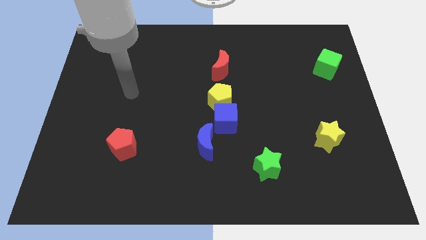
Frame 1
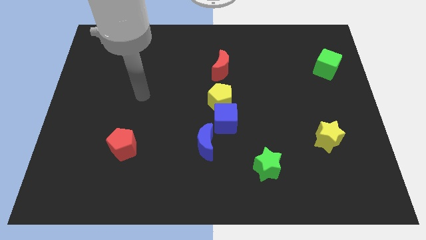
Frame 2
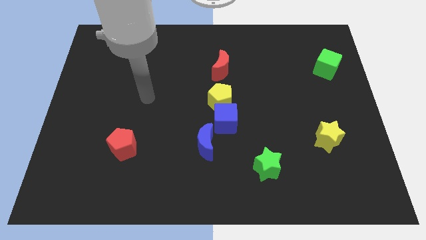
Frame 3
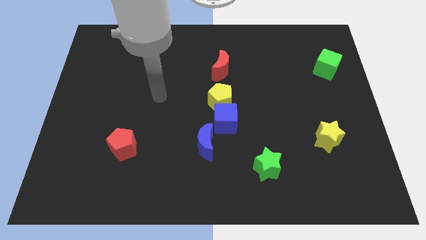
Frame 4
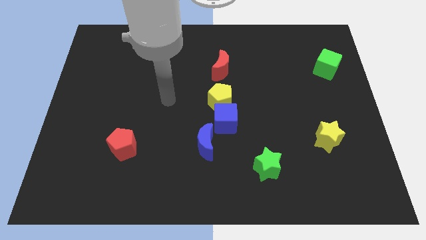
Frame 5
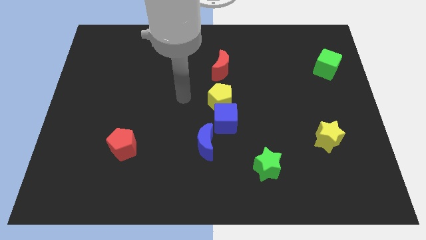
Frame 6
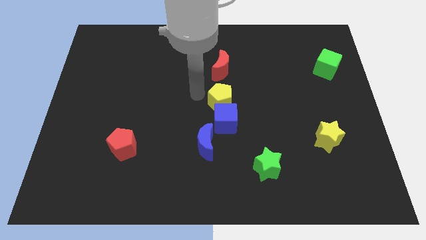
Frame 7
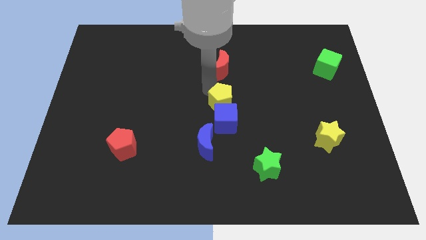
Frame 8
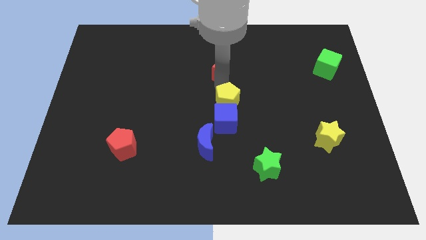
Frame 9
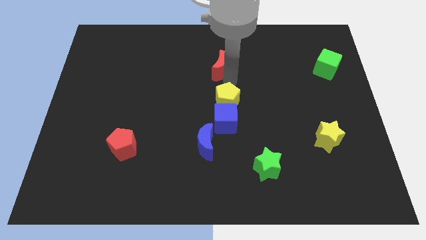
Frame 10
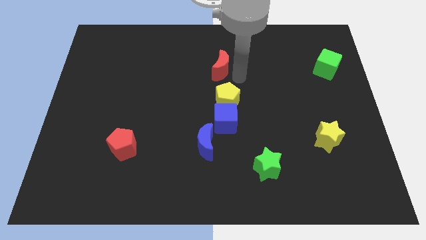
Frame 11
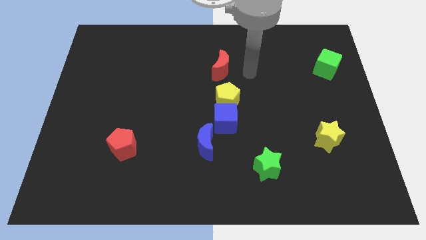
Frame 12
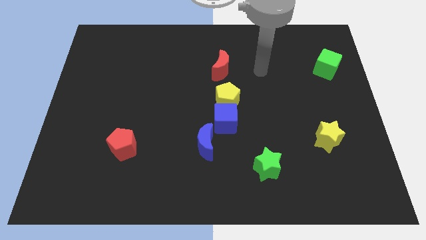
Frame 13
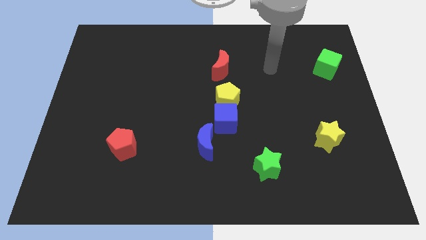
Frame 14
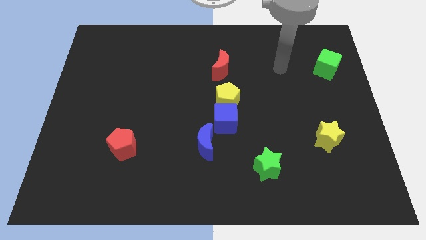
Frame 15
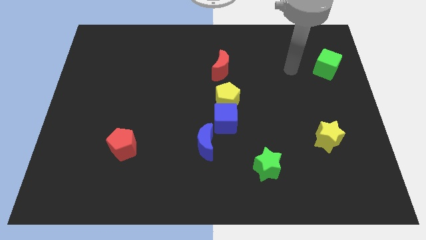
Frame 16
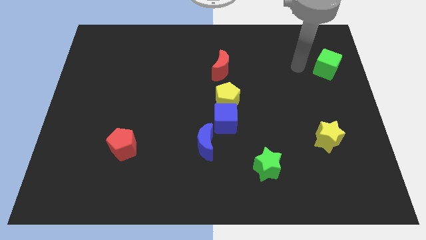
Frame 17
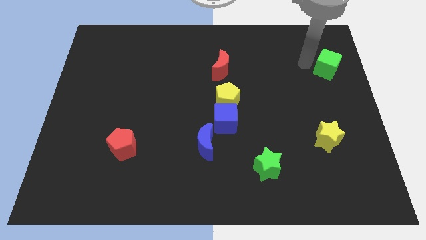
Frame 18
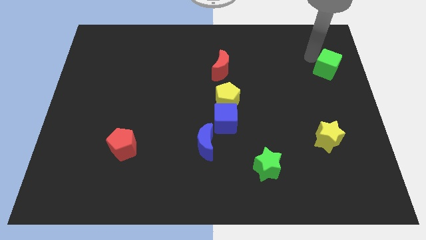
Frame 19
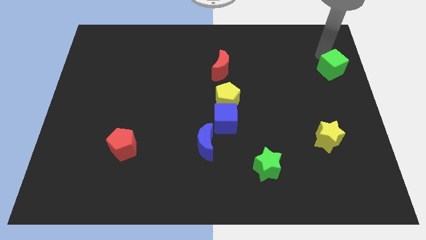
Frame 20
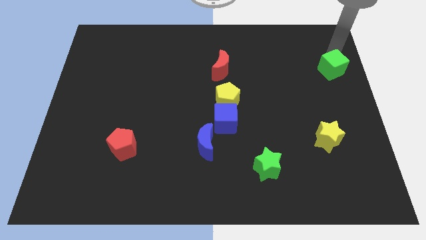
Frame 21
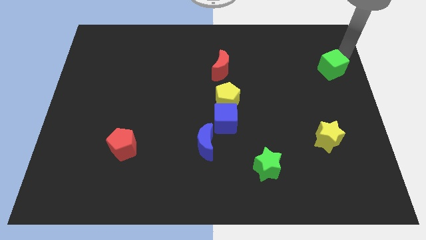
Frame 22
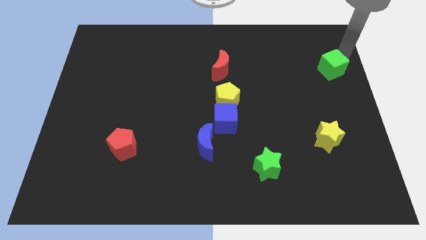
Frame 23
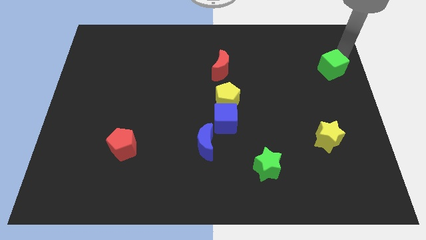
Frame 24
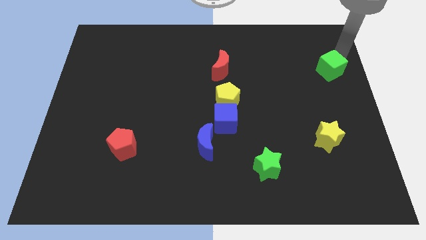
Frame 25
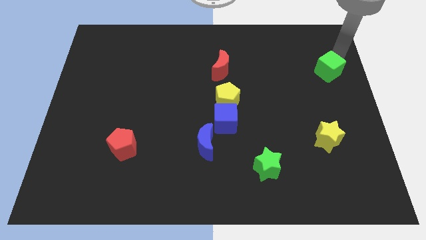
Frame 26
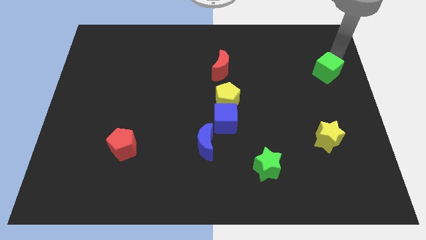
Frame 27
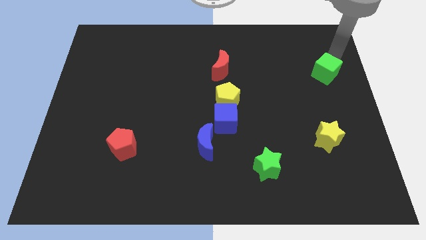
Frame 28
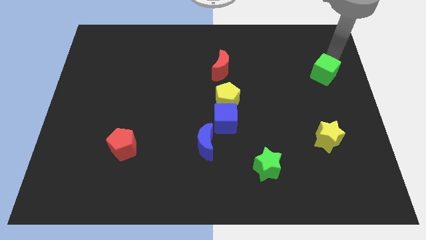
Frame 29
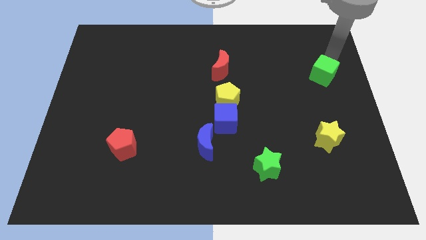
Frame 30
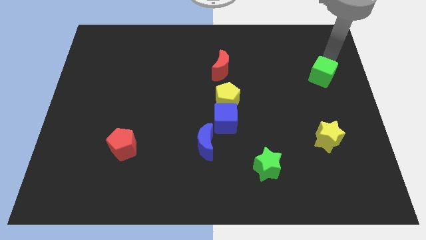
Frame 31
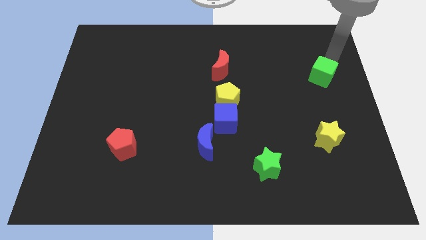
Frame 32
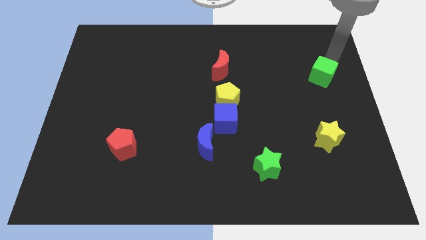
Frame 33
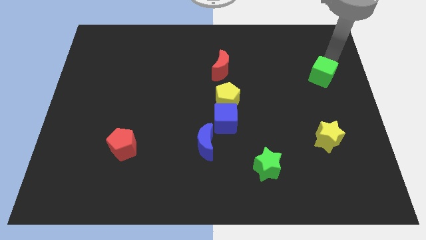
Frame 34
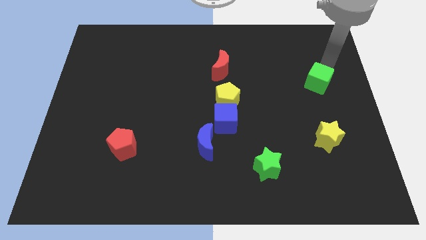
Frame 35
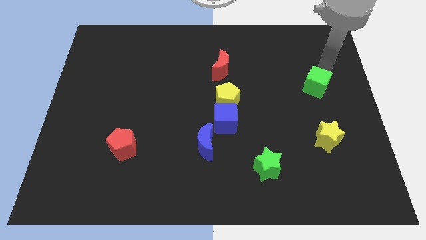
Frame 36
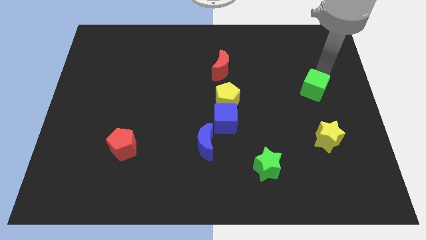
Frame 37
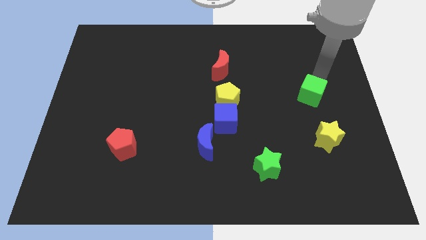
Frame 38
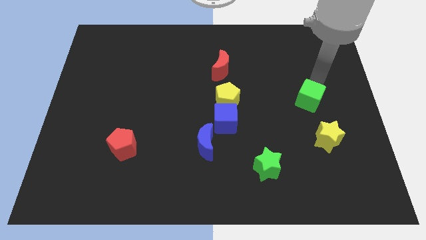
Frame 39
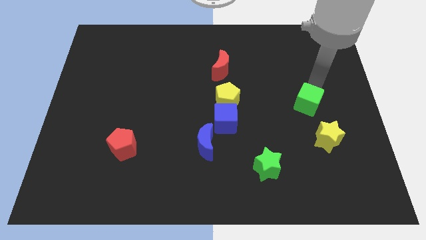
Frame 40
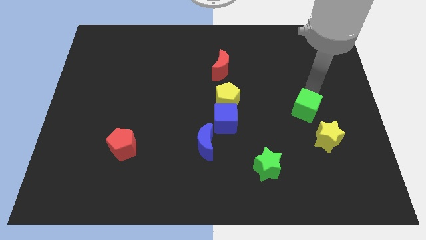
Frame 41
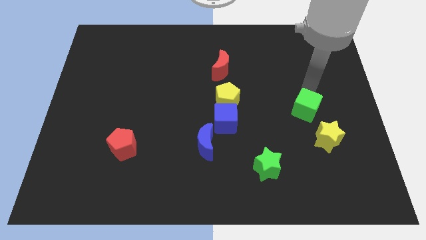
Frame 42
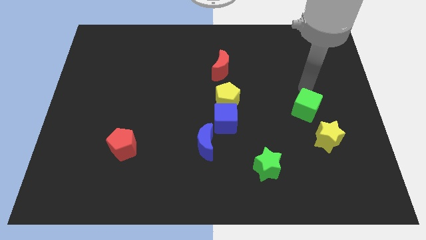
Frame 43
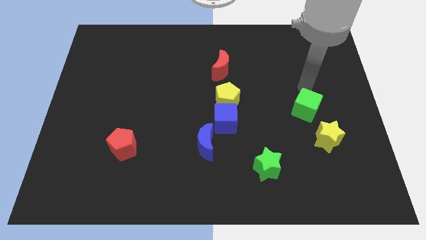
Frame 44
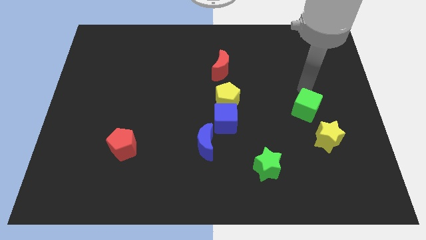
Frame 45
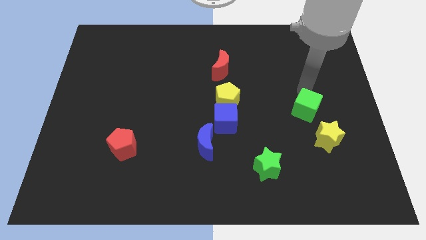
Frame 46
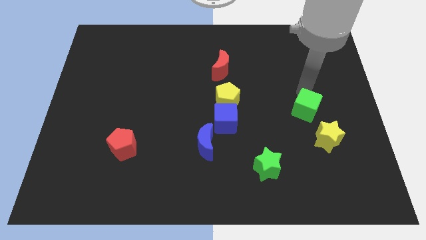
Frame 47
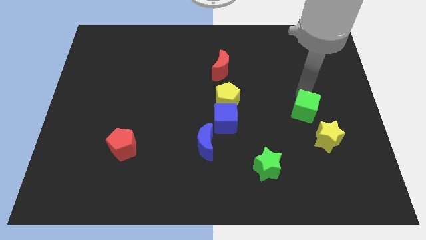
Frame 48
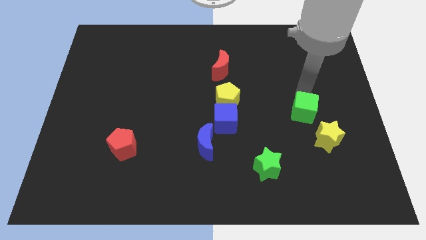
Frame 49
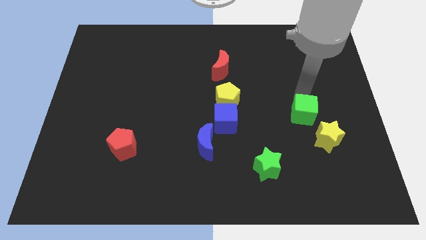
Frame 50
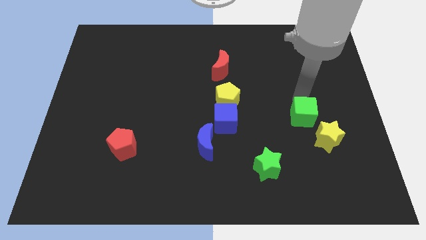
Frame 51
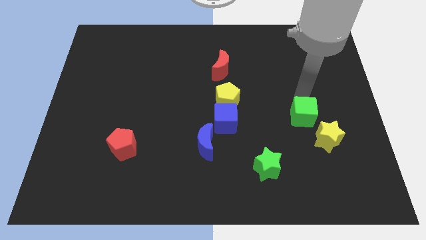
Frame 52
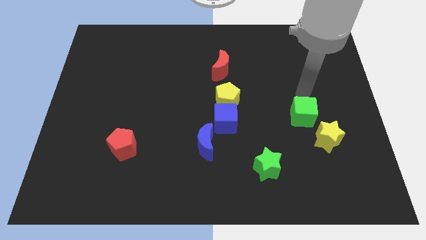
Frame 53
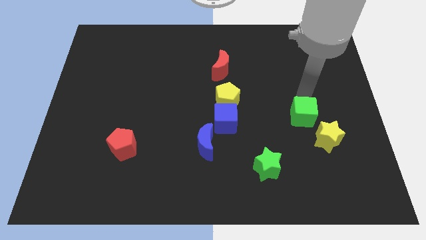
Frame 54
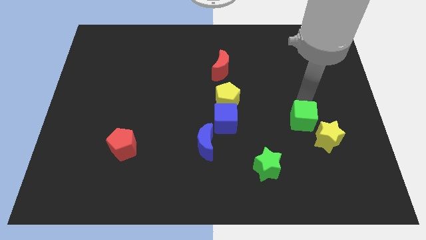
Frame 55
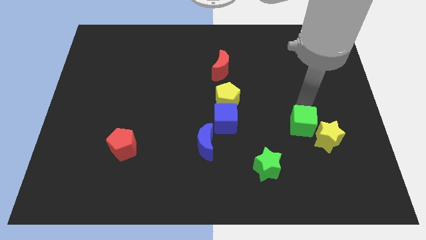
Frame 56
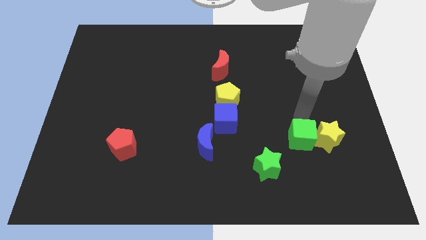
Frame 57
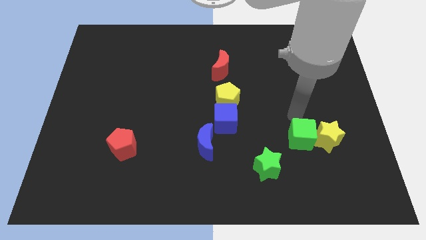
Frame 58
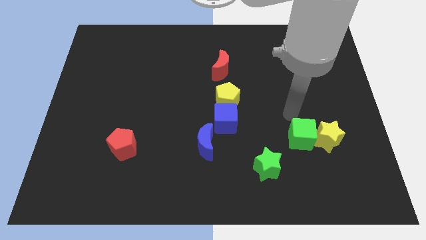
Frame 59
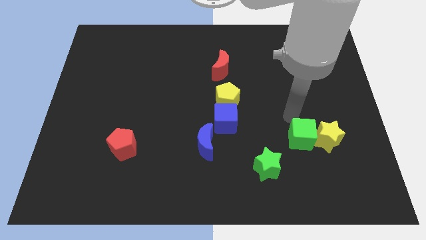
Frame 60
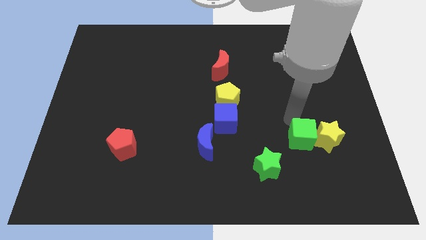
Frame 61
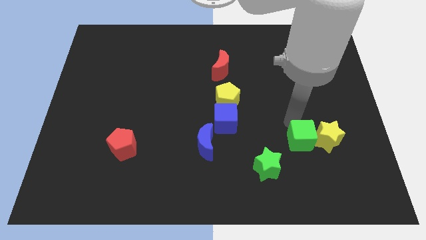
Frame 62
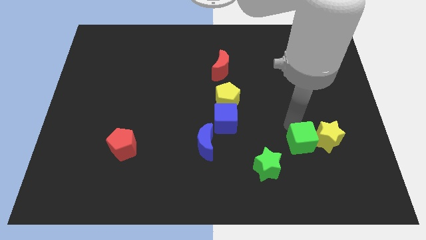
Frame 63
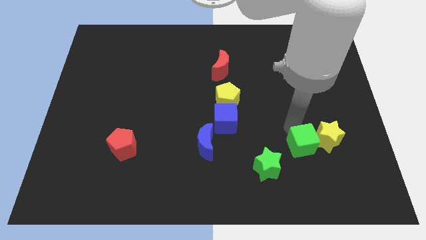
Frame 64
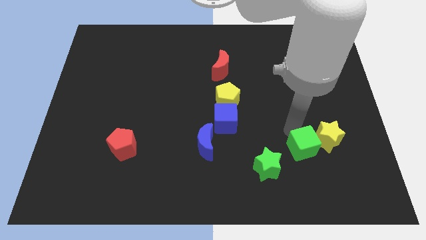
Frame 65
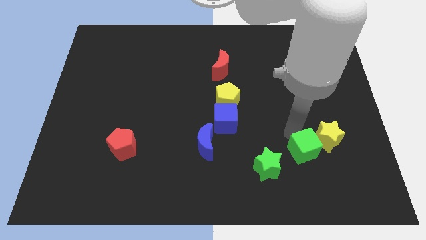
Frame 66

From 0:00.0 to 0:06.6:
push the green cube right of the green star
